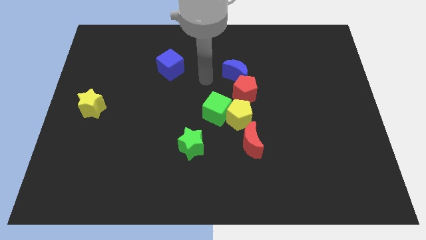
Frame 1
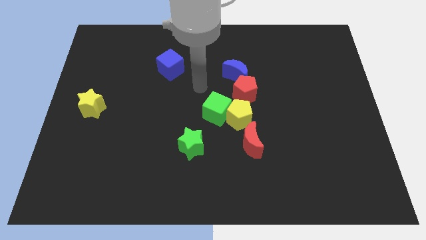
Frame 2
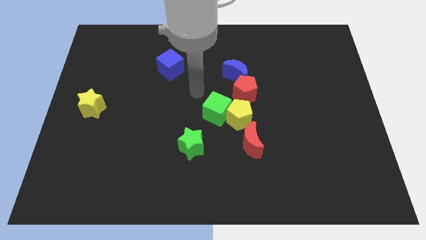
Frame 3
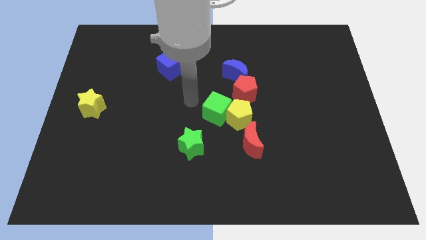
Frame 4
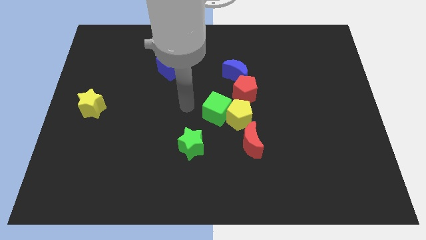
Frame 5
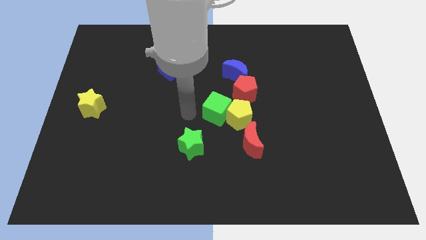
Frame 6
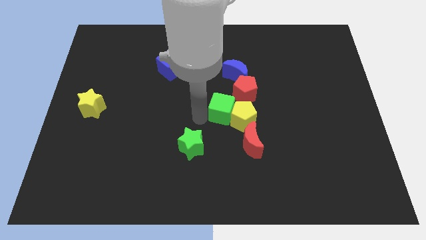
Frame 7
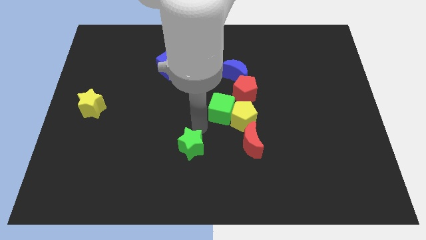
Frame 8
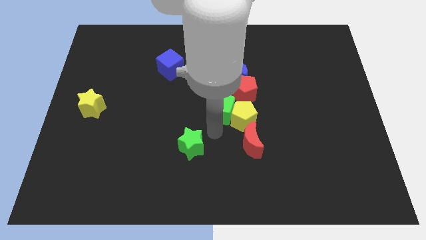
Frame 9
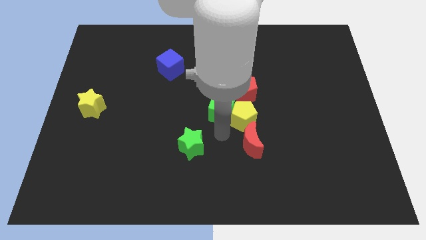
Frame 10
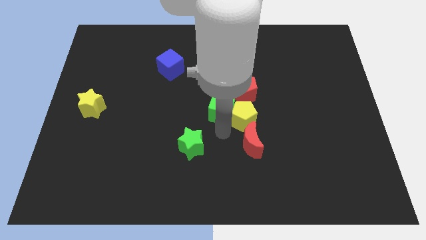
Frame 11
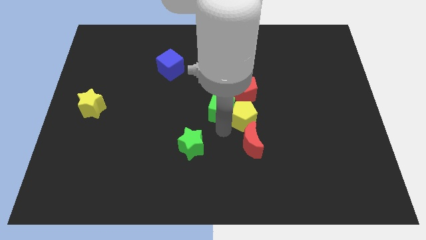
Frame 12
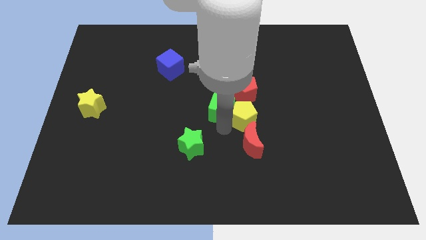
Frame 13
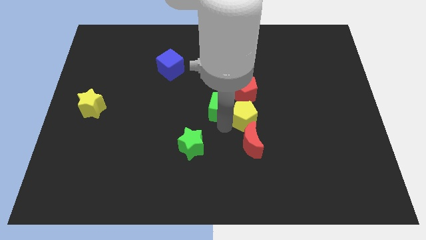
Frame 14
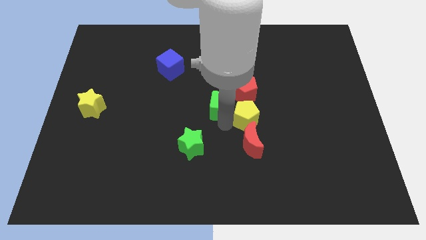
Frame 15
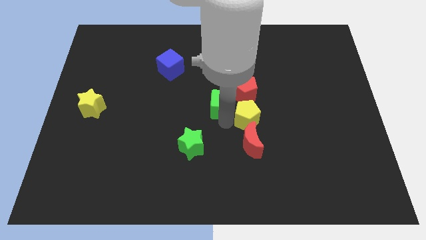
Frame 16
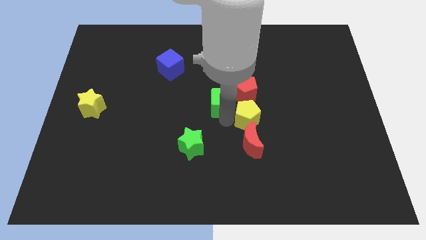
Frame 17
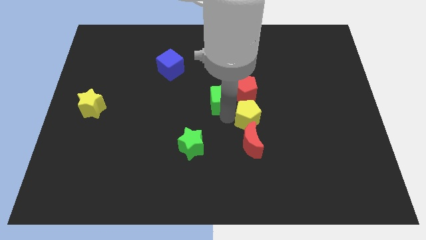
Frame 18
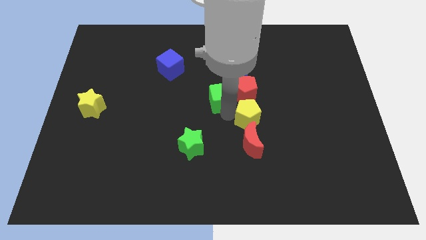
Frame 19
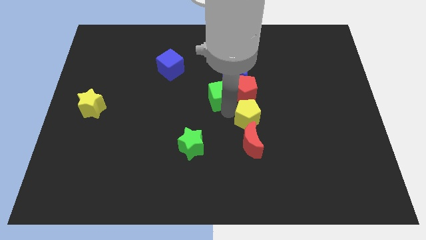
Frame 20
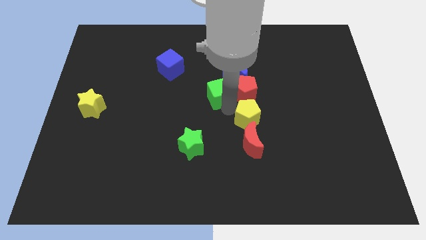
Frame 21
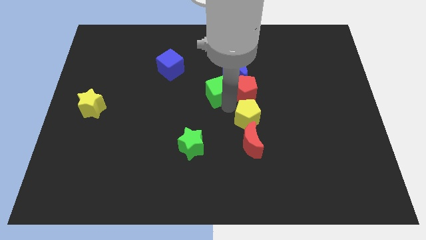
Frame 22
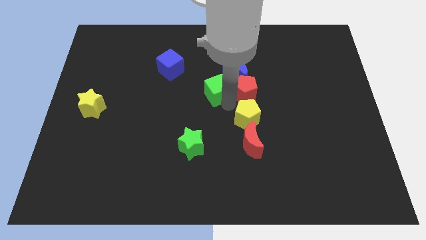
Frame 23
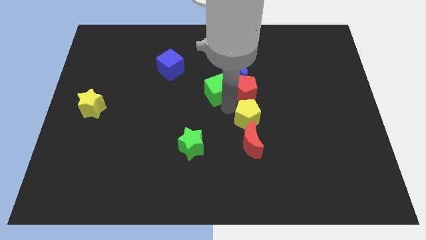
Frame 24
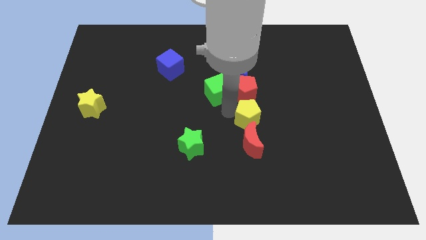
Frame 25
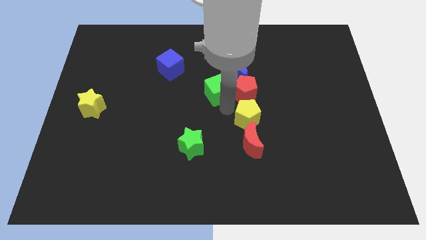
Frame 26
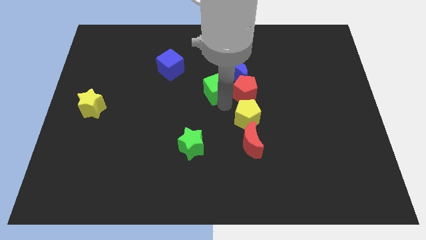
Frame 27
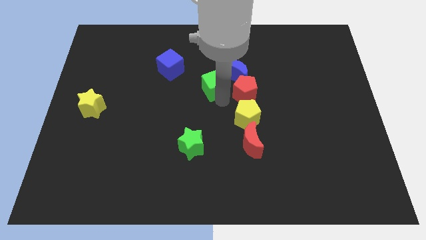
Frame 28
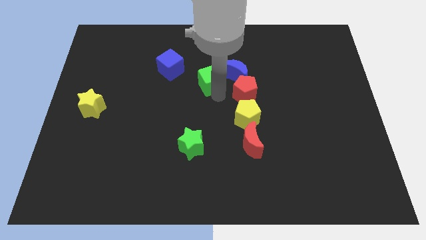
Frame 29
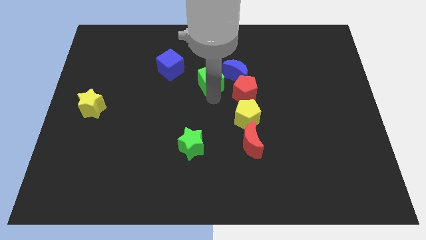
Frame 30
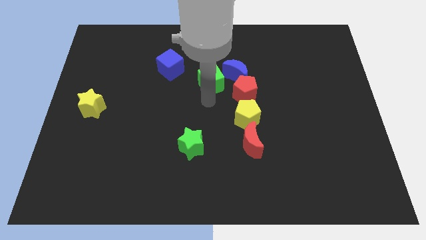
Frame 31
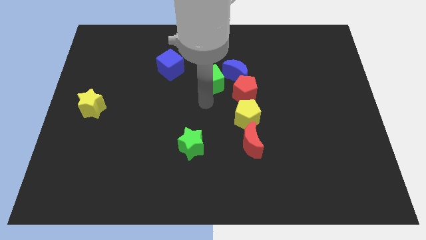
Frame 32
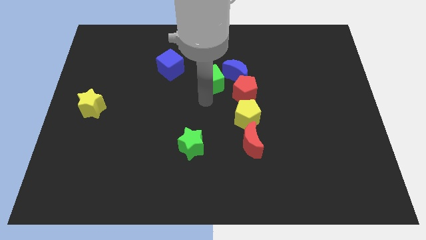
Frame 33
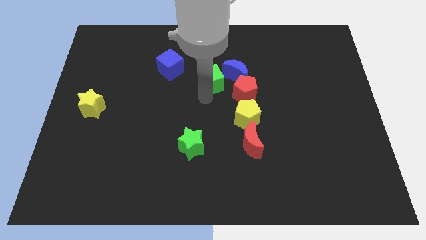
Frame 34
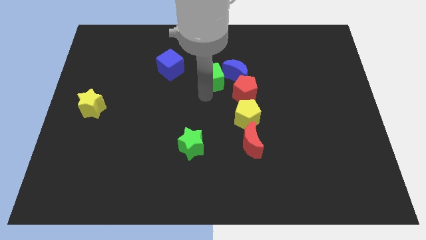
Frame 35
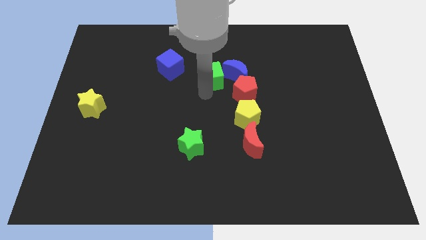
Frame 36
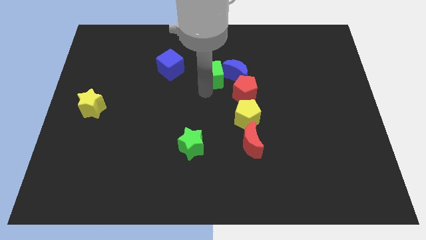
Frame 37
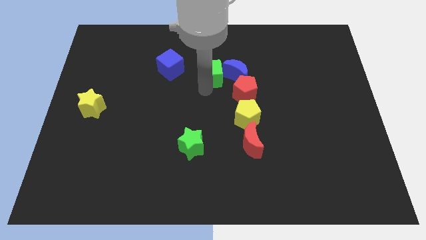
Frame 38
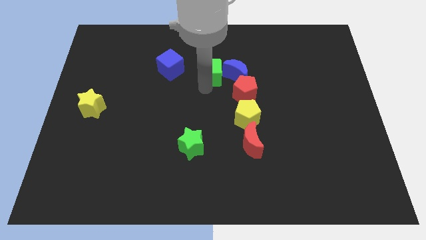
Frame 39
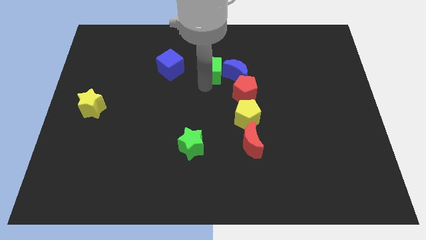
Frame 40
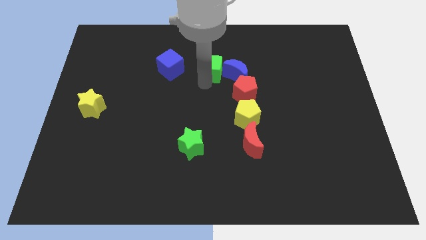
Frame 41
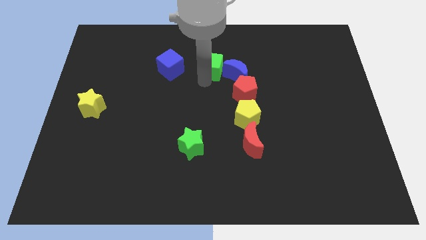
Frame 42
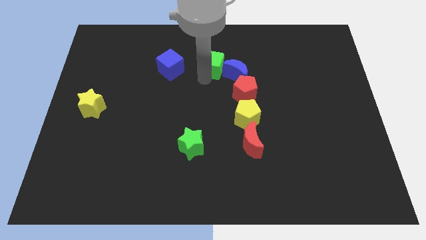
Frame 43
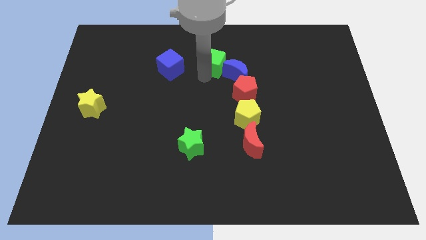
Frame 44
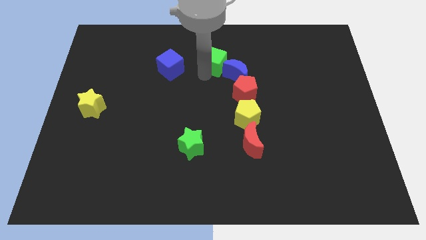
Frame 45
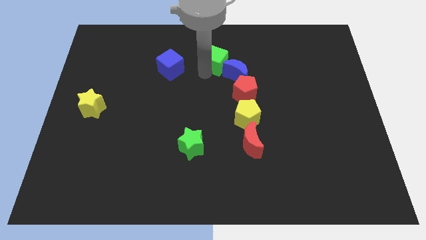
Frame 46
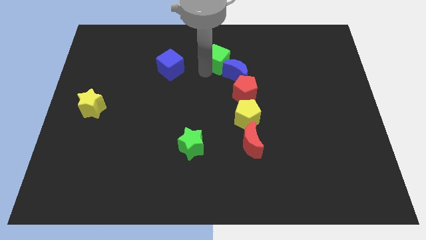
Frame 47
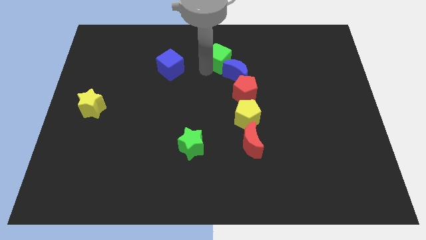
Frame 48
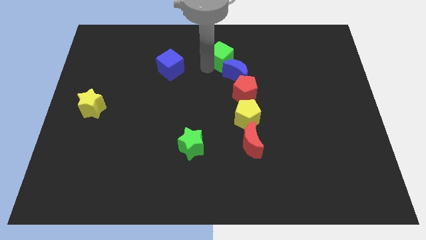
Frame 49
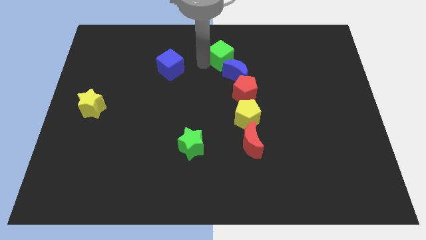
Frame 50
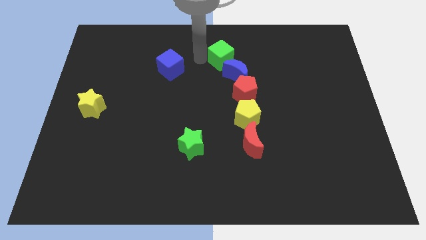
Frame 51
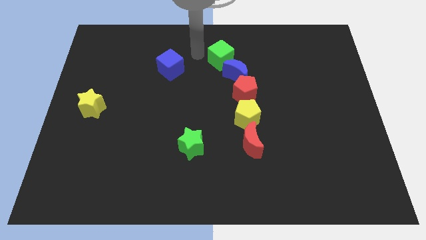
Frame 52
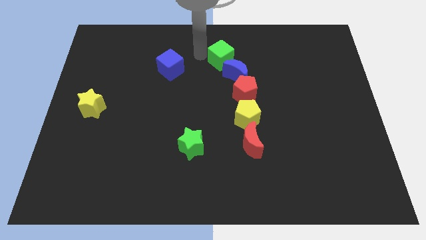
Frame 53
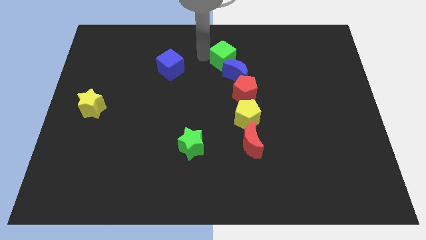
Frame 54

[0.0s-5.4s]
move the green cube slightly up and right

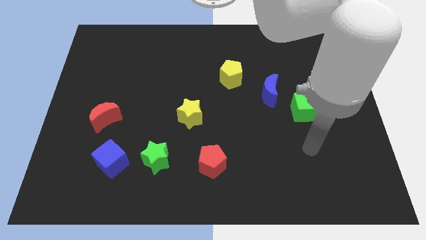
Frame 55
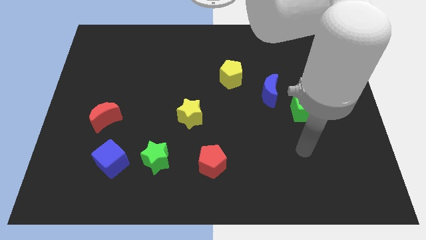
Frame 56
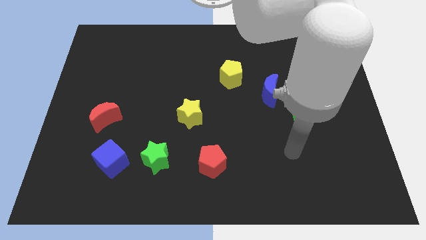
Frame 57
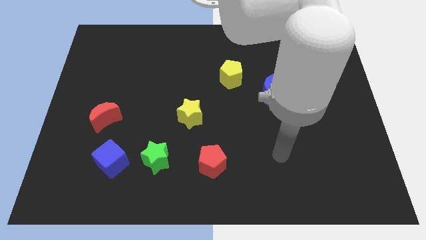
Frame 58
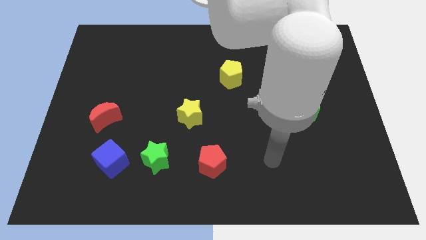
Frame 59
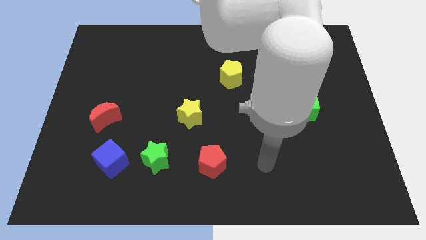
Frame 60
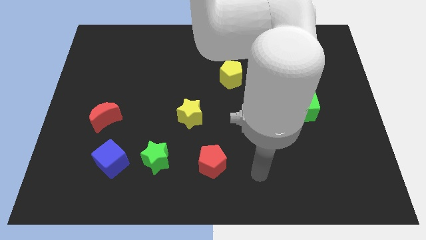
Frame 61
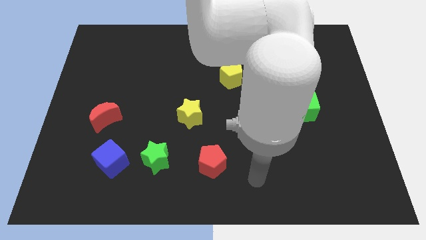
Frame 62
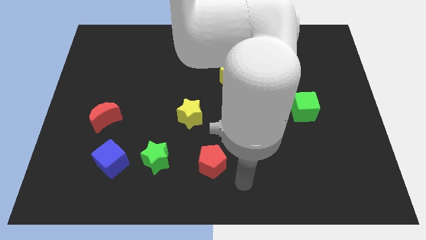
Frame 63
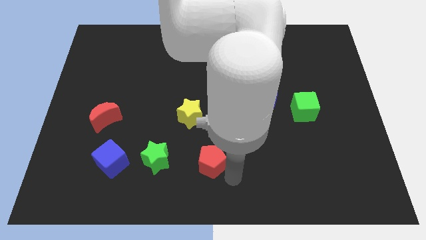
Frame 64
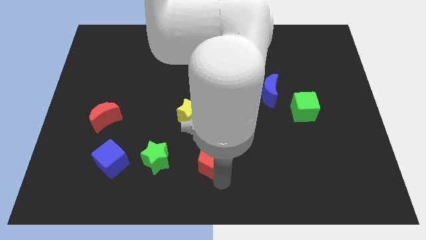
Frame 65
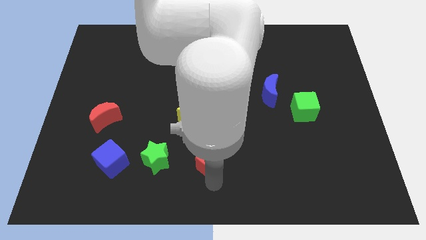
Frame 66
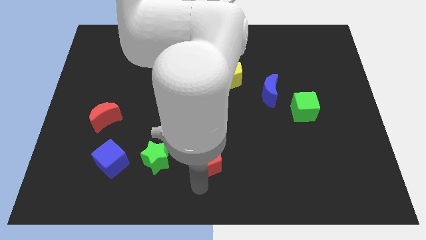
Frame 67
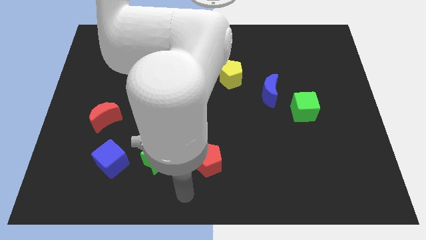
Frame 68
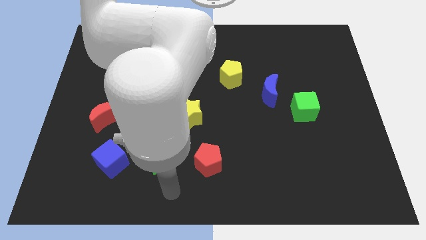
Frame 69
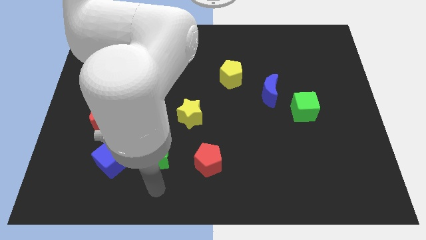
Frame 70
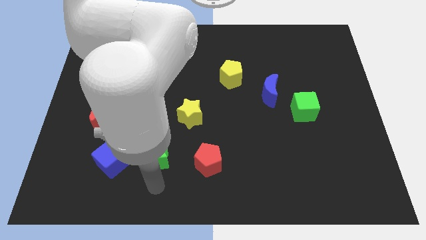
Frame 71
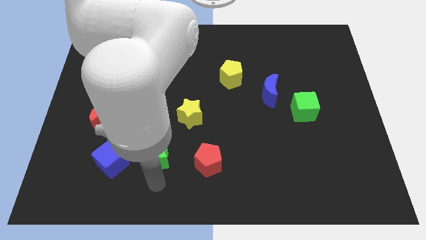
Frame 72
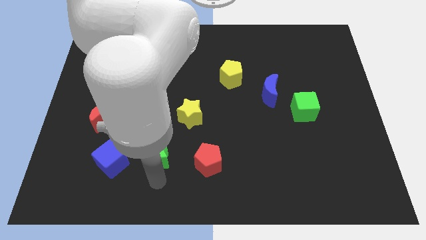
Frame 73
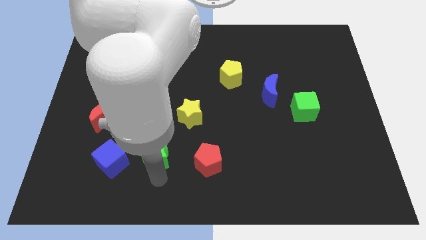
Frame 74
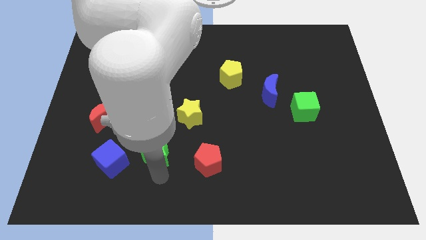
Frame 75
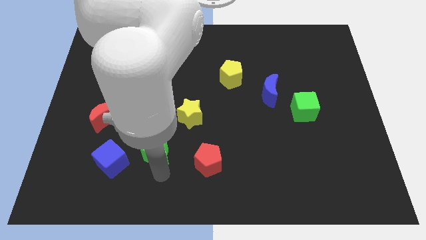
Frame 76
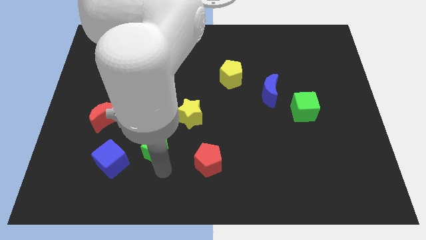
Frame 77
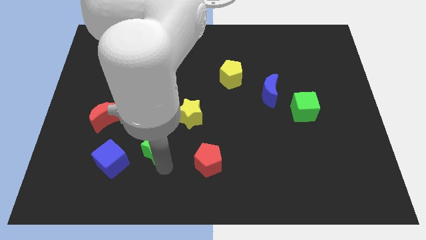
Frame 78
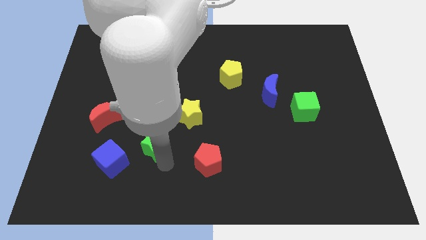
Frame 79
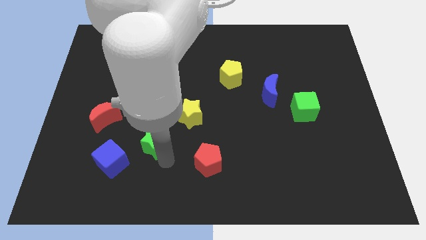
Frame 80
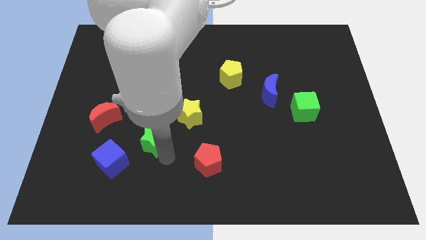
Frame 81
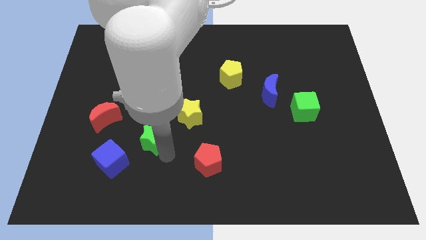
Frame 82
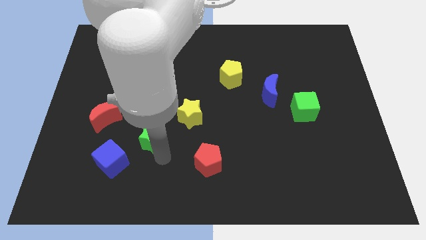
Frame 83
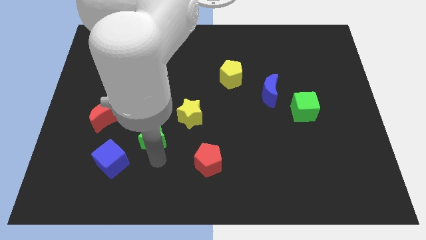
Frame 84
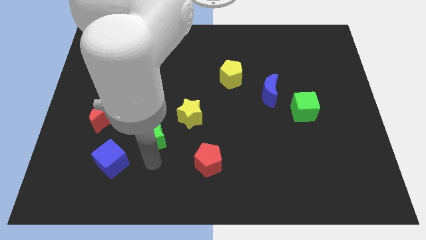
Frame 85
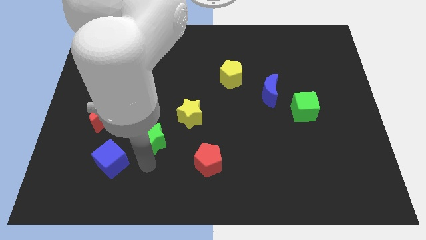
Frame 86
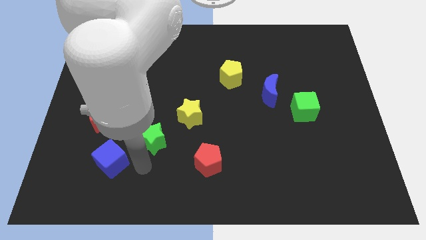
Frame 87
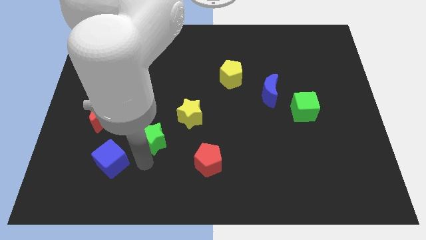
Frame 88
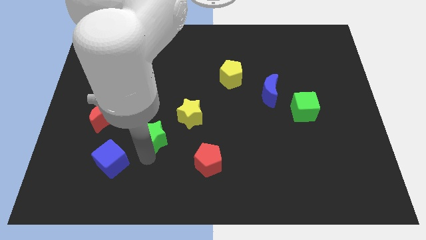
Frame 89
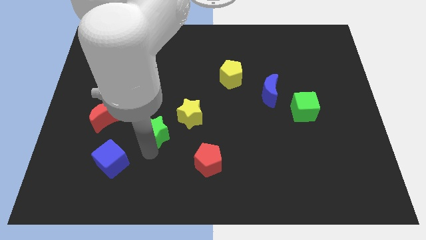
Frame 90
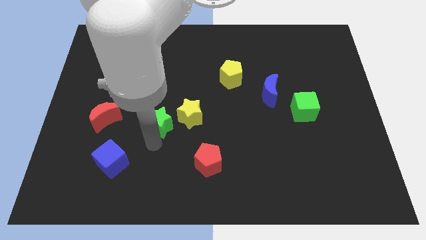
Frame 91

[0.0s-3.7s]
push the green star up a little bit
